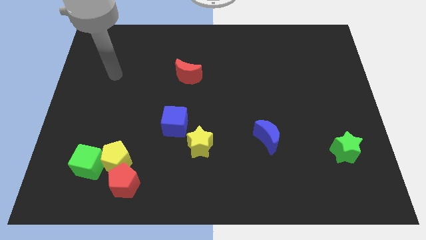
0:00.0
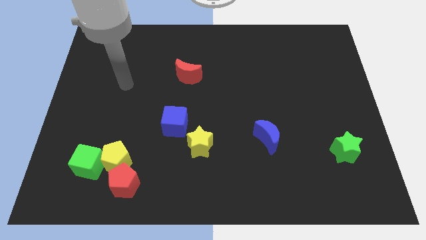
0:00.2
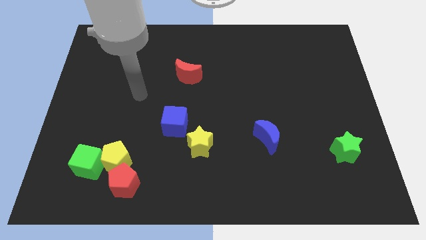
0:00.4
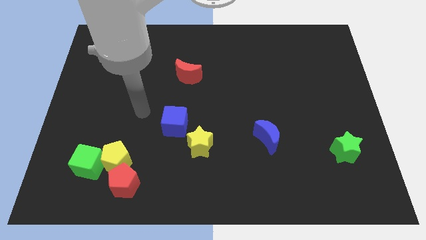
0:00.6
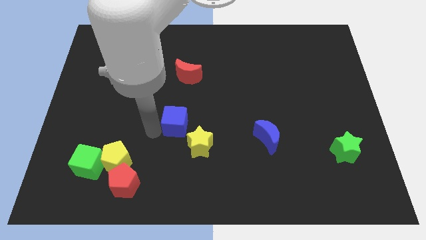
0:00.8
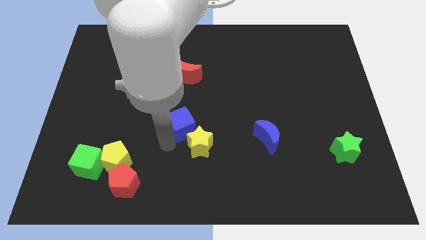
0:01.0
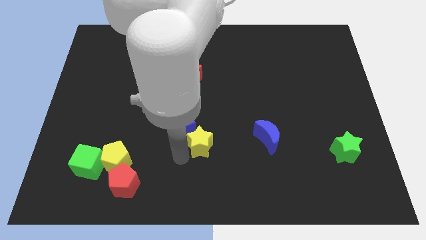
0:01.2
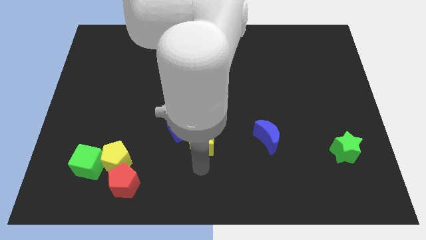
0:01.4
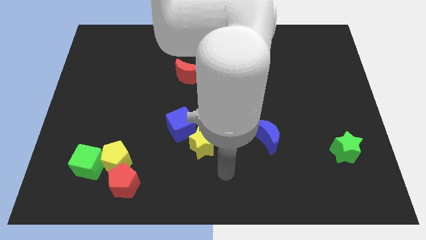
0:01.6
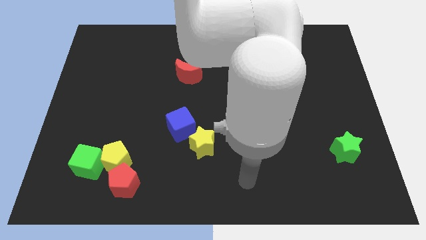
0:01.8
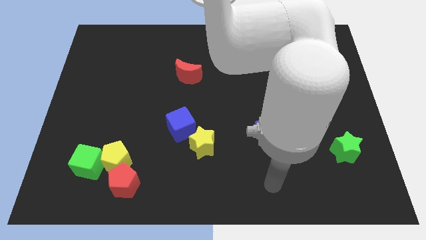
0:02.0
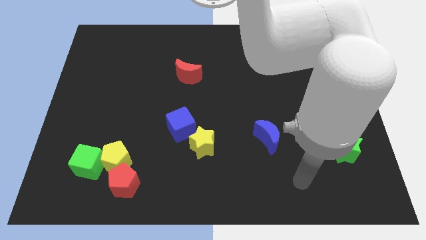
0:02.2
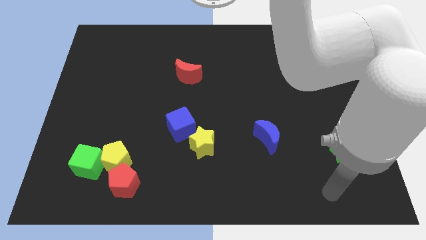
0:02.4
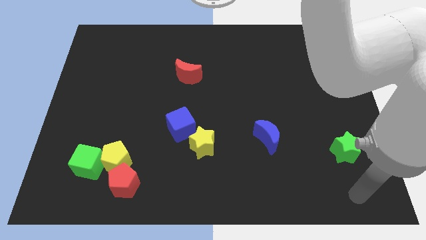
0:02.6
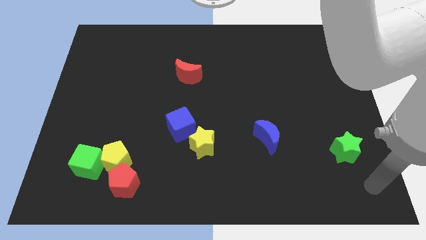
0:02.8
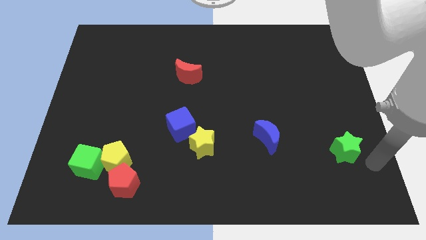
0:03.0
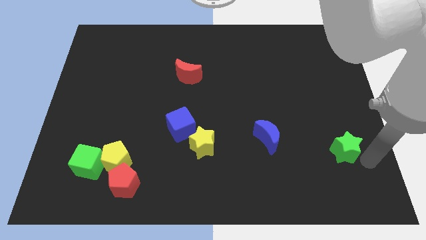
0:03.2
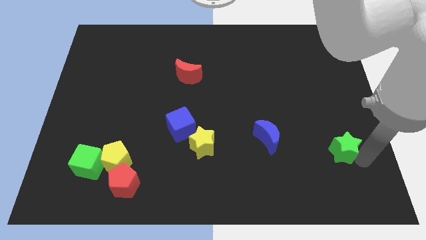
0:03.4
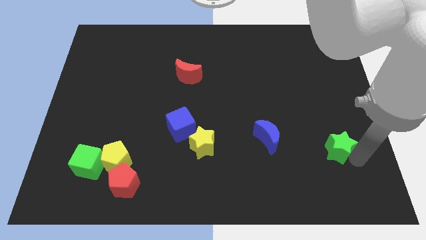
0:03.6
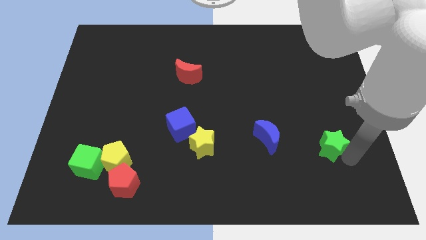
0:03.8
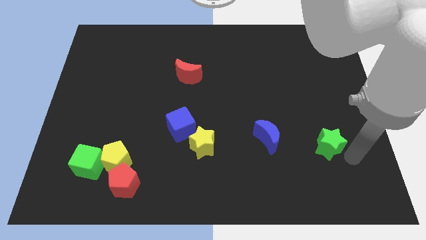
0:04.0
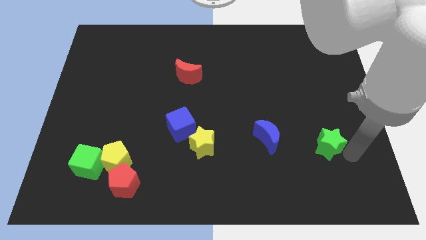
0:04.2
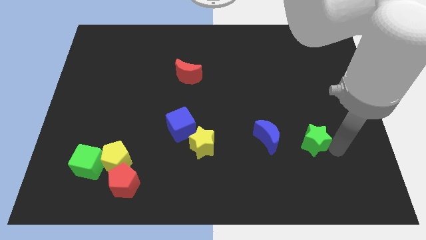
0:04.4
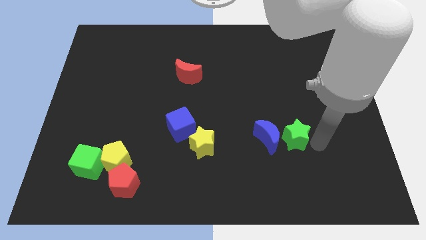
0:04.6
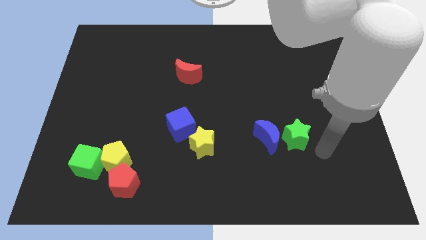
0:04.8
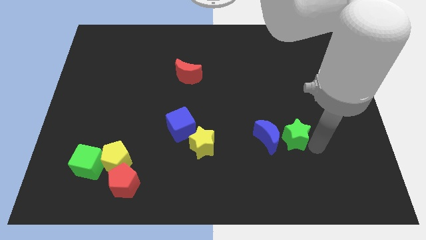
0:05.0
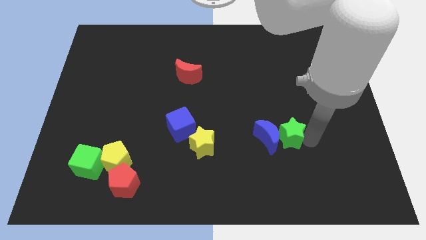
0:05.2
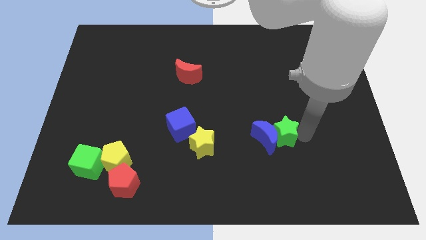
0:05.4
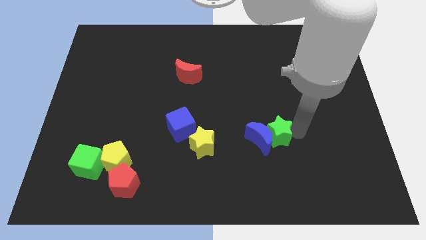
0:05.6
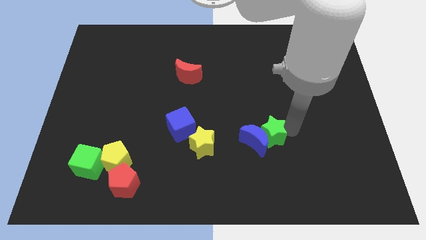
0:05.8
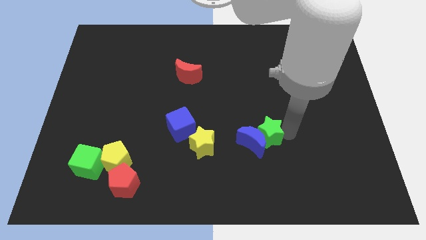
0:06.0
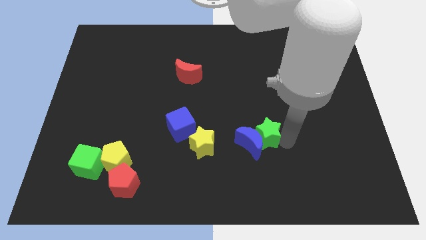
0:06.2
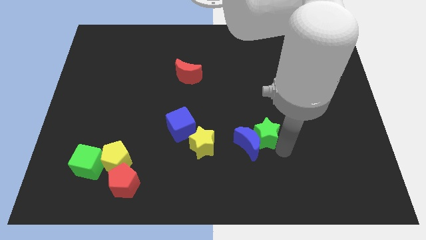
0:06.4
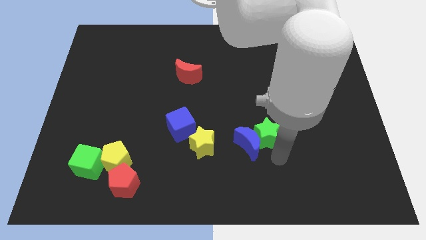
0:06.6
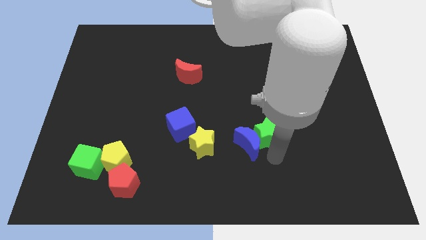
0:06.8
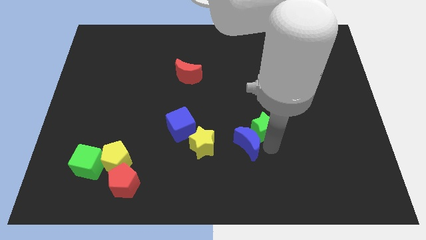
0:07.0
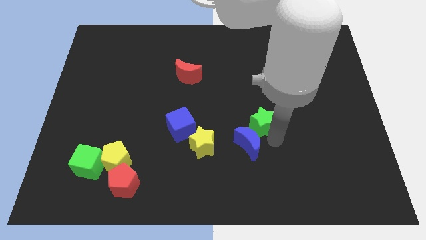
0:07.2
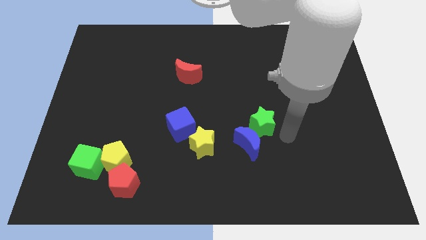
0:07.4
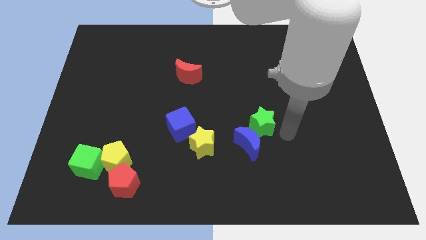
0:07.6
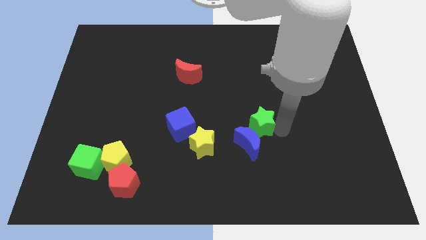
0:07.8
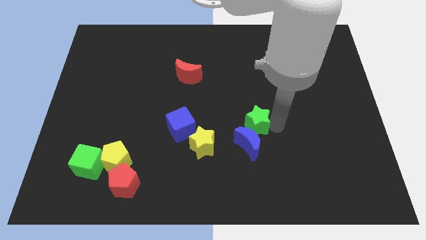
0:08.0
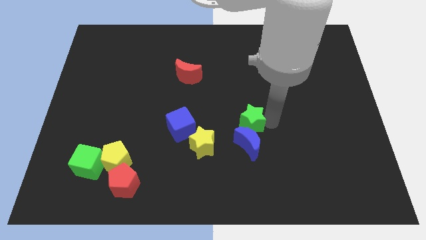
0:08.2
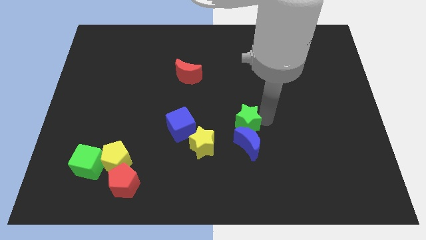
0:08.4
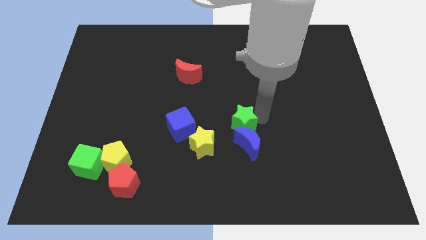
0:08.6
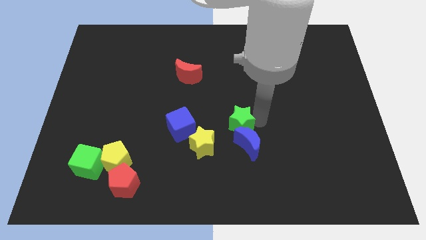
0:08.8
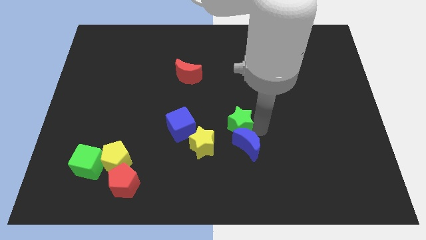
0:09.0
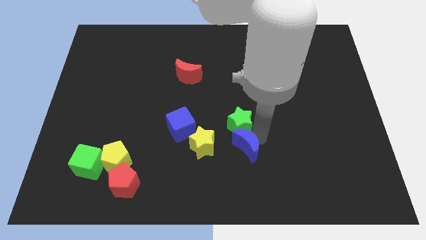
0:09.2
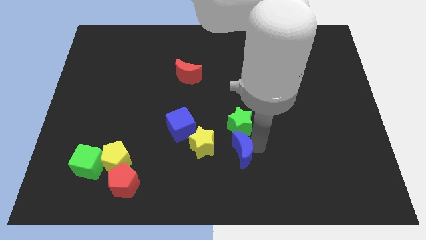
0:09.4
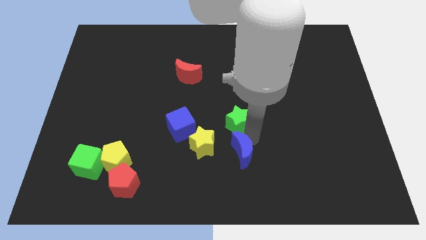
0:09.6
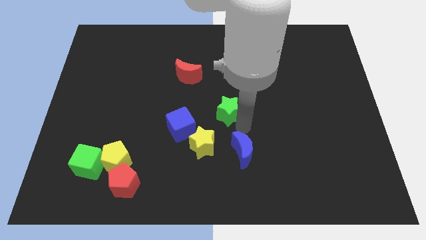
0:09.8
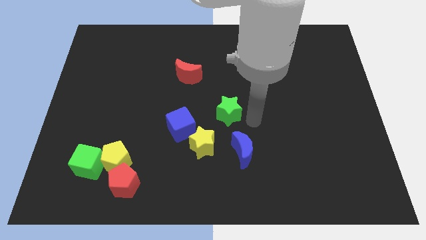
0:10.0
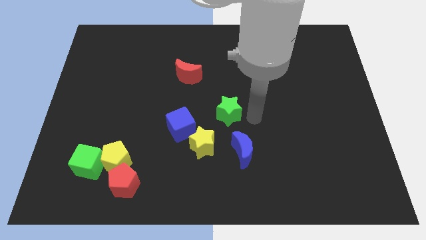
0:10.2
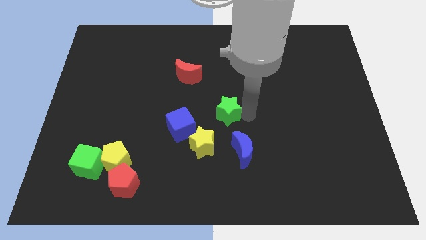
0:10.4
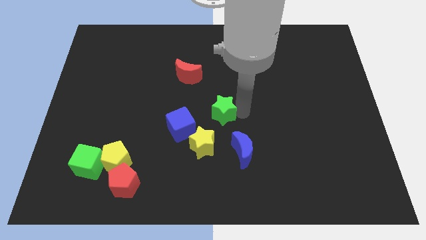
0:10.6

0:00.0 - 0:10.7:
put the green star above the yellow star

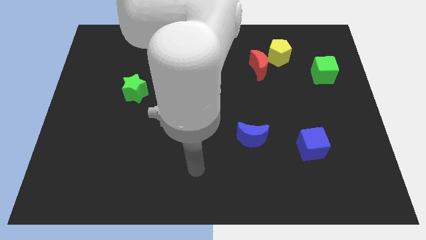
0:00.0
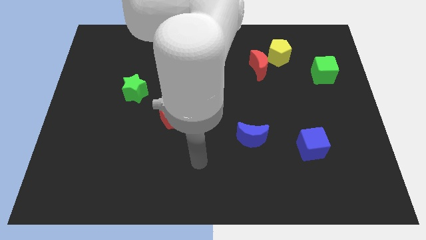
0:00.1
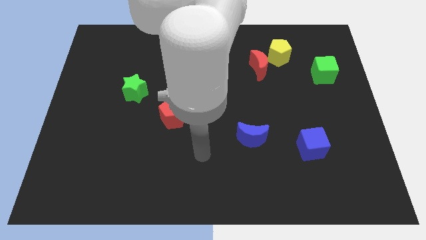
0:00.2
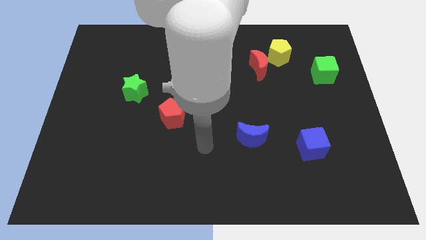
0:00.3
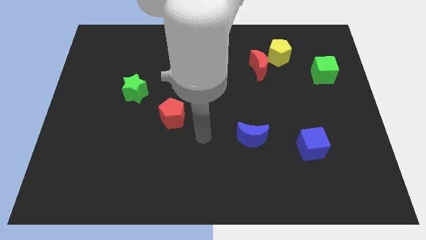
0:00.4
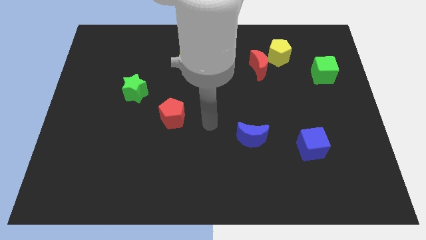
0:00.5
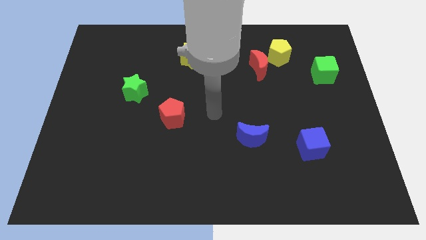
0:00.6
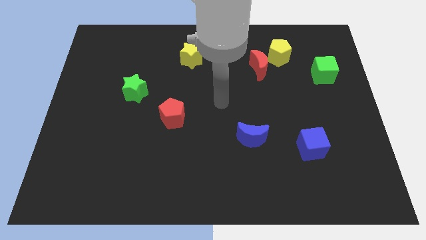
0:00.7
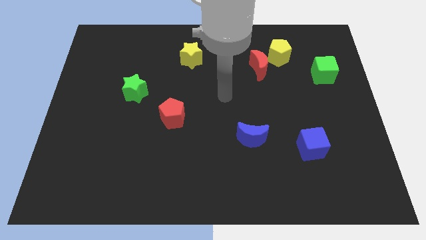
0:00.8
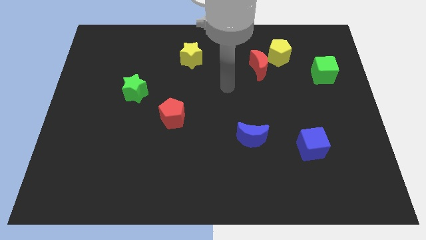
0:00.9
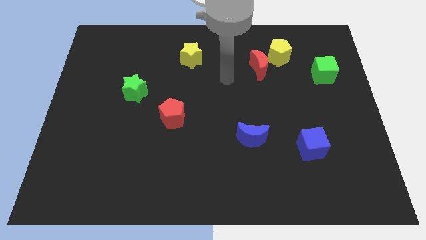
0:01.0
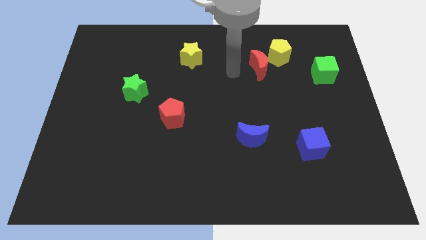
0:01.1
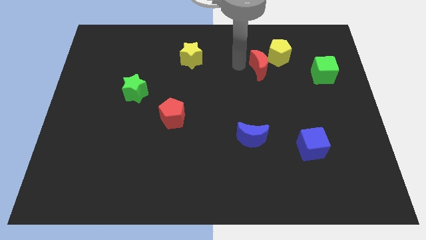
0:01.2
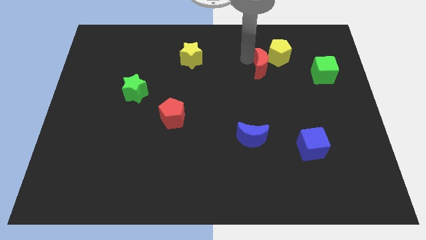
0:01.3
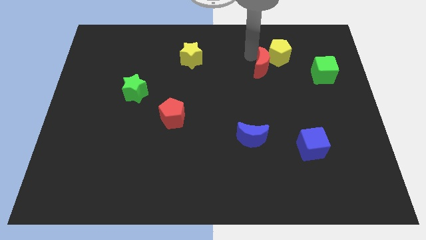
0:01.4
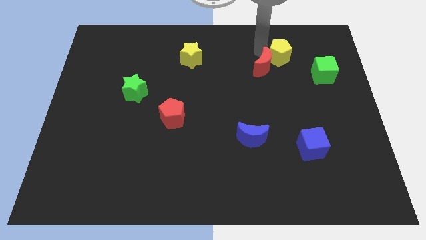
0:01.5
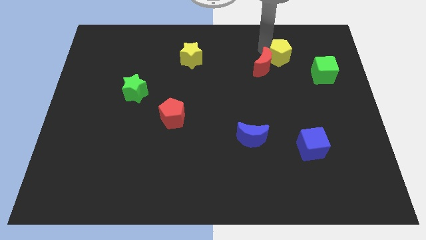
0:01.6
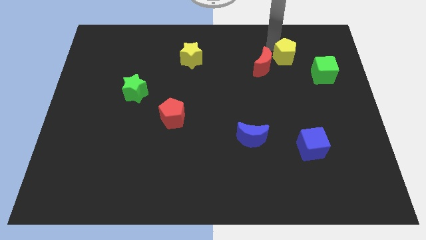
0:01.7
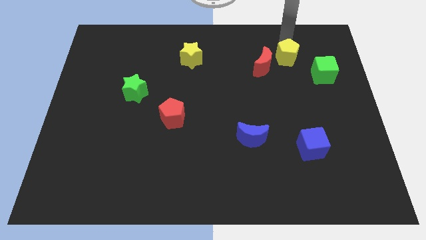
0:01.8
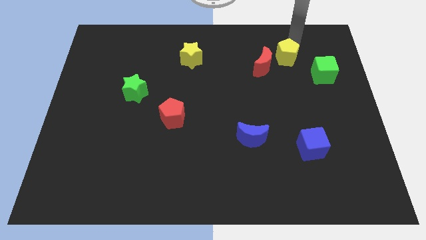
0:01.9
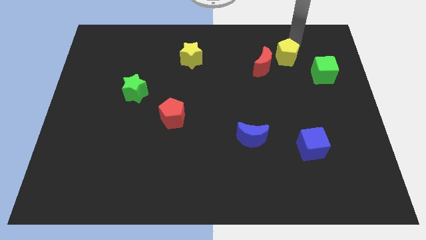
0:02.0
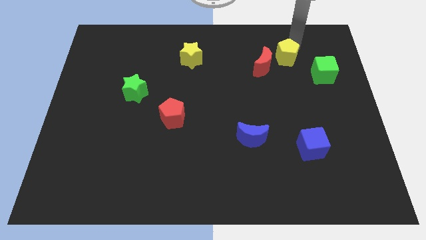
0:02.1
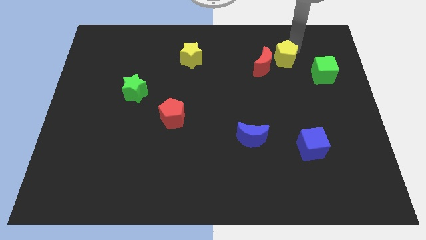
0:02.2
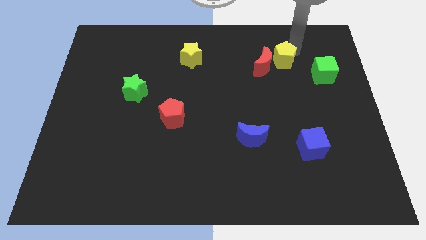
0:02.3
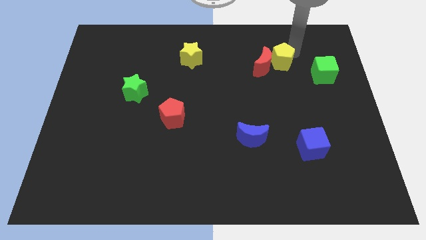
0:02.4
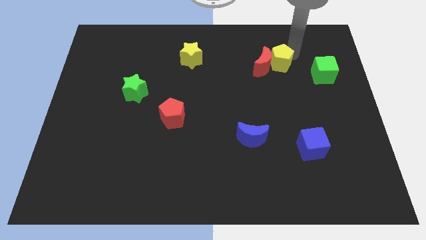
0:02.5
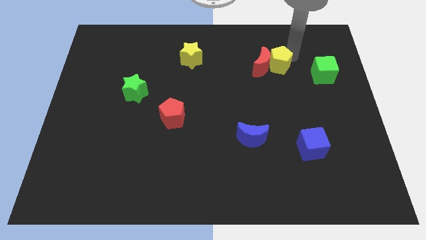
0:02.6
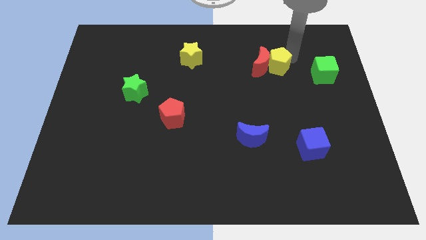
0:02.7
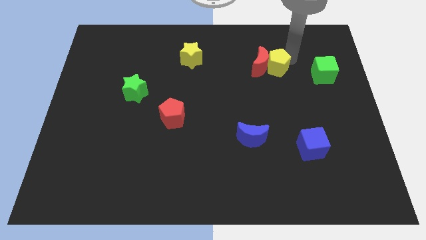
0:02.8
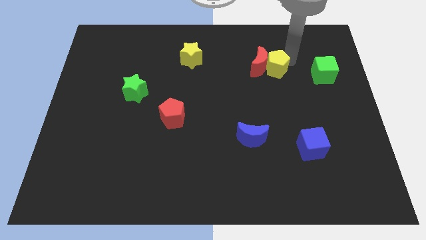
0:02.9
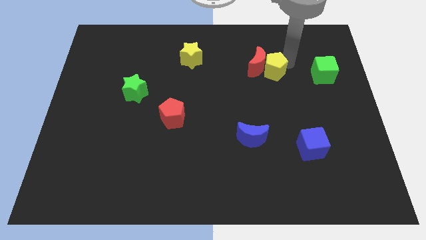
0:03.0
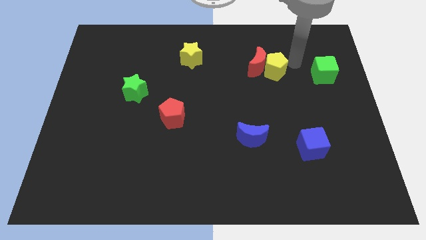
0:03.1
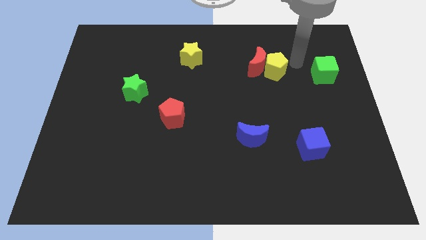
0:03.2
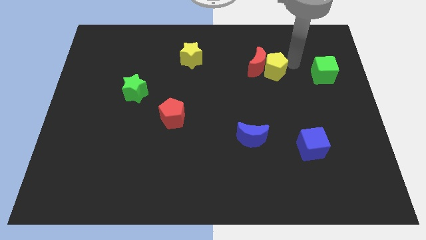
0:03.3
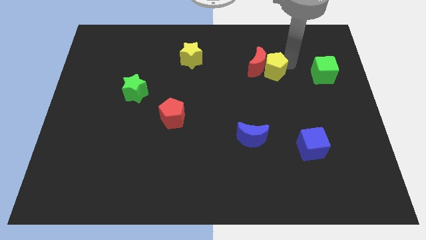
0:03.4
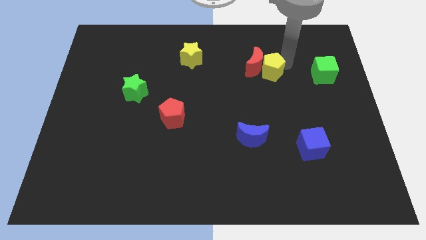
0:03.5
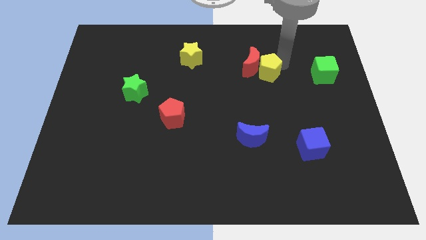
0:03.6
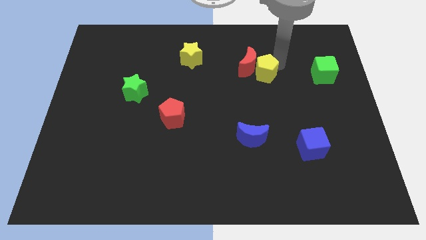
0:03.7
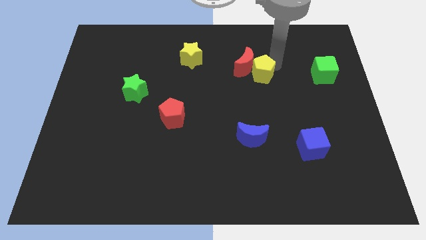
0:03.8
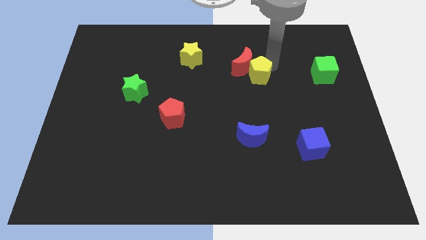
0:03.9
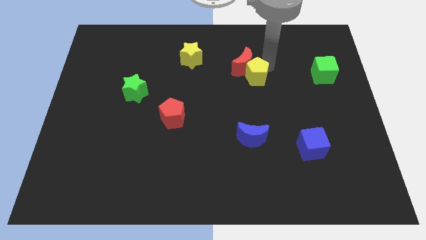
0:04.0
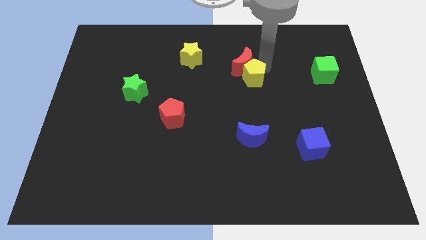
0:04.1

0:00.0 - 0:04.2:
put the yellow pentagon to the bottom left of the red moon
